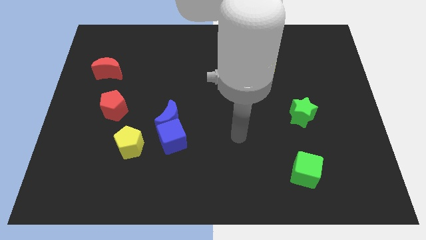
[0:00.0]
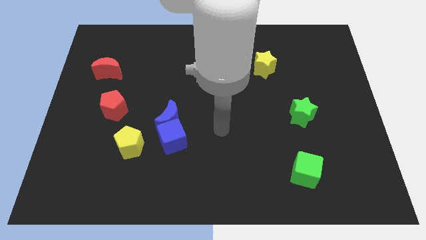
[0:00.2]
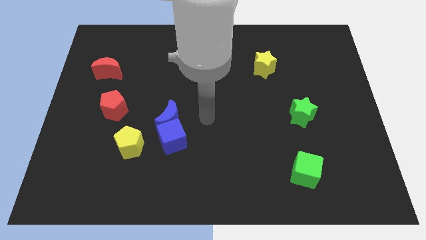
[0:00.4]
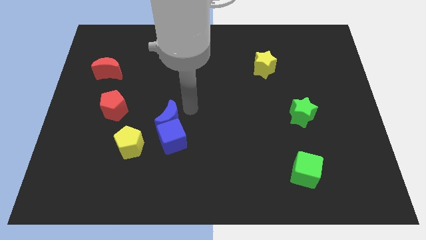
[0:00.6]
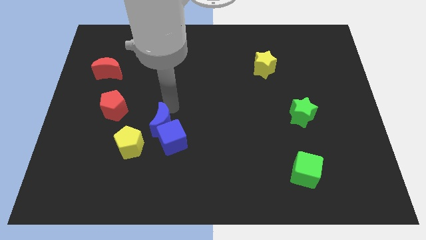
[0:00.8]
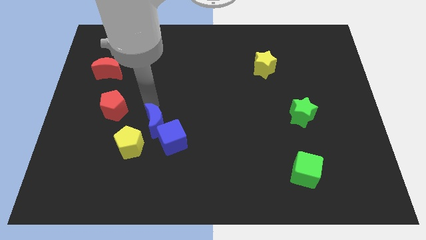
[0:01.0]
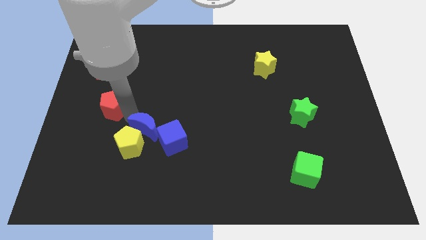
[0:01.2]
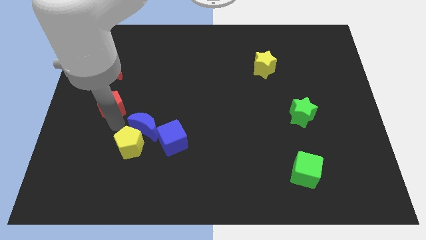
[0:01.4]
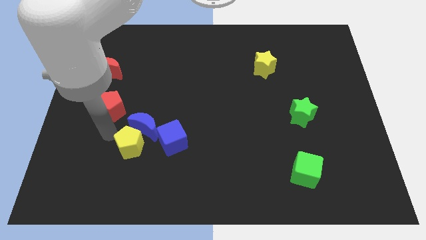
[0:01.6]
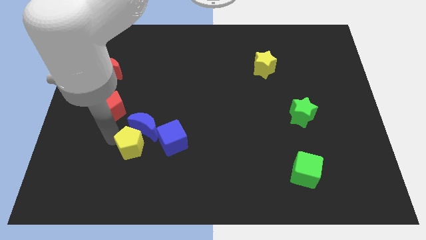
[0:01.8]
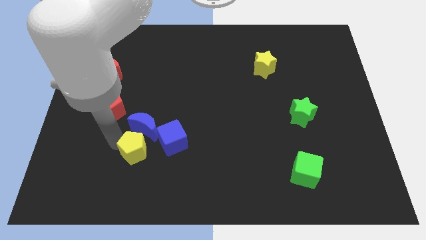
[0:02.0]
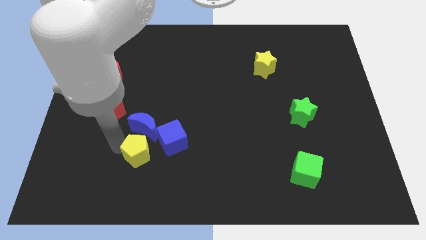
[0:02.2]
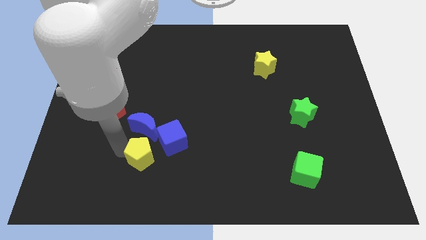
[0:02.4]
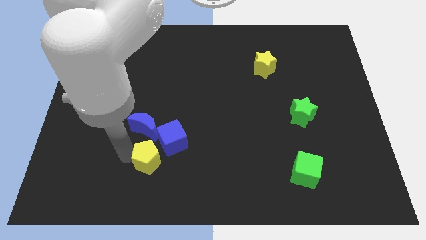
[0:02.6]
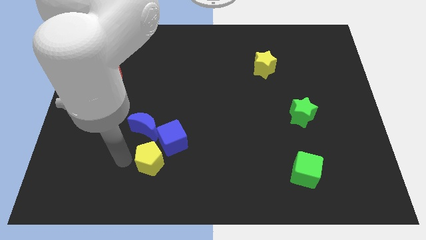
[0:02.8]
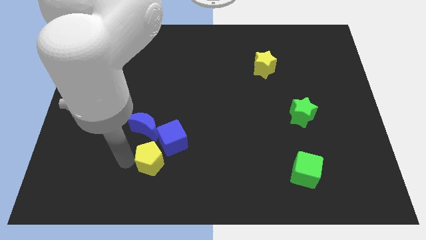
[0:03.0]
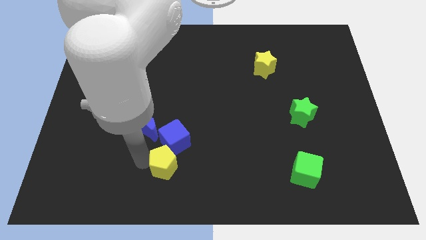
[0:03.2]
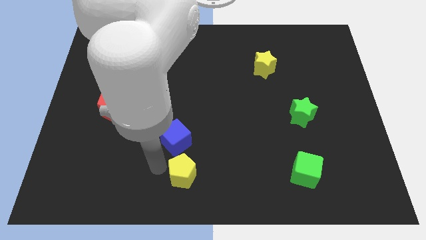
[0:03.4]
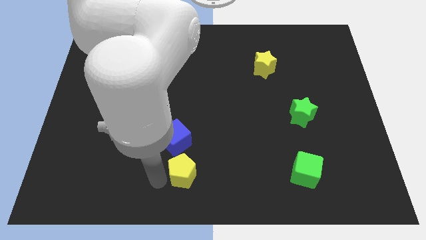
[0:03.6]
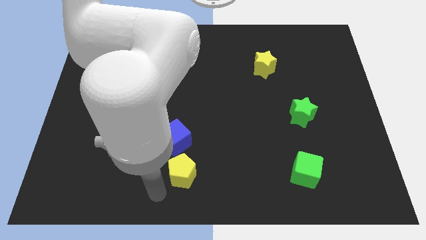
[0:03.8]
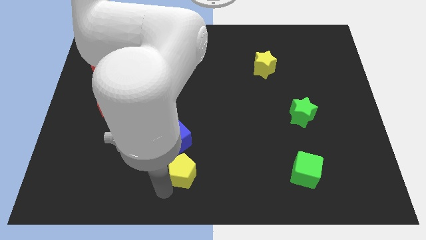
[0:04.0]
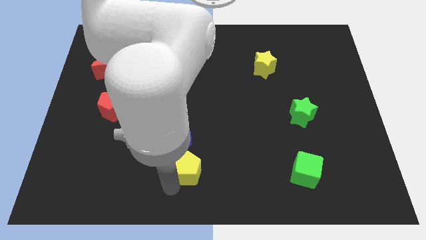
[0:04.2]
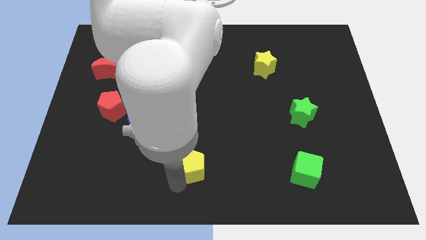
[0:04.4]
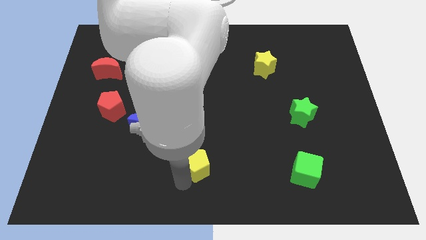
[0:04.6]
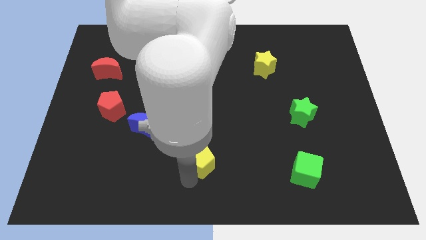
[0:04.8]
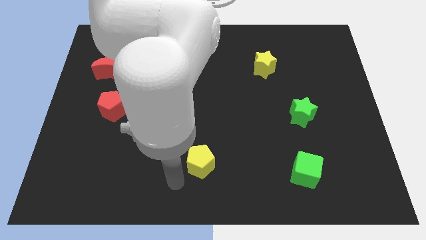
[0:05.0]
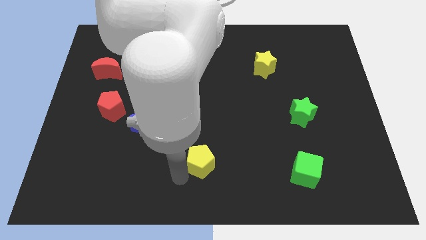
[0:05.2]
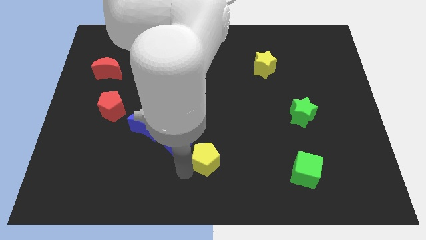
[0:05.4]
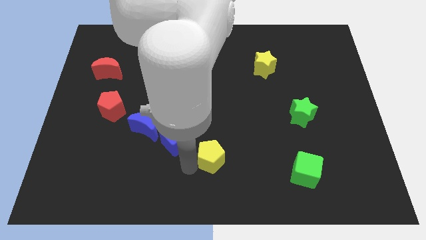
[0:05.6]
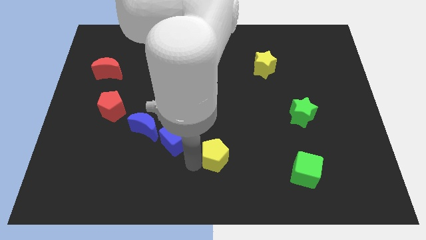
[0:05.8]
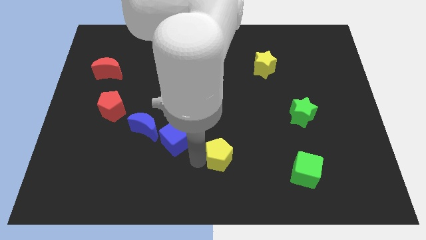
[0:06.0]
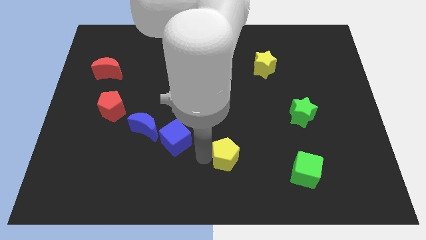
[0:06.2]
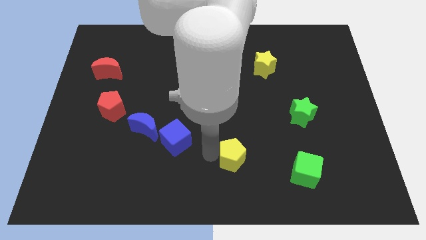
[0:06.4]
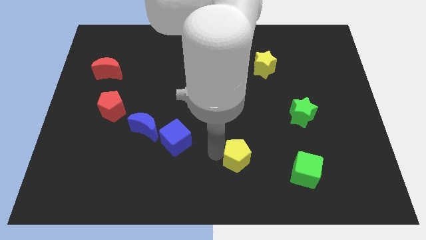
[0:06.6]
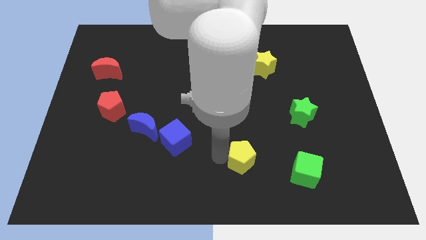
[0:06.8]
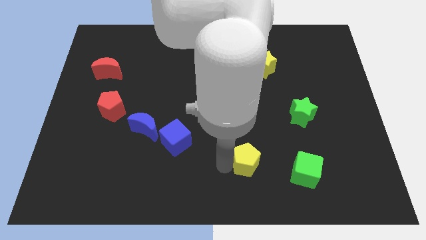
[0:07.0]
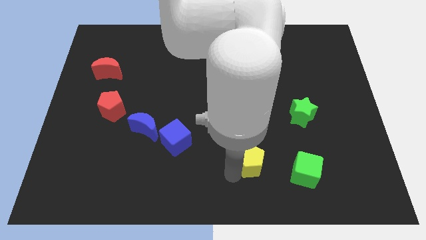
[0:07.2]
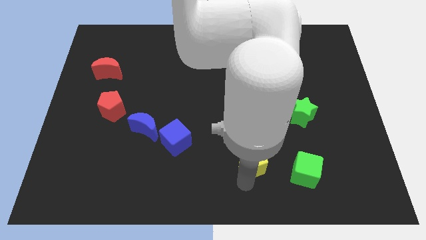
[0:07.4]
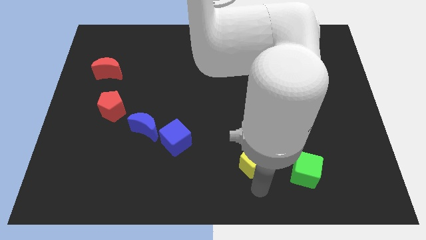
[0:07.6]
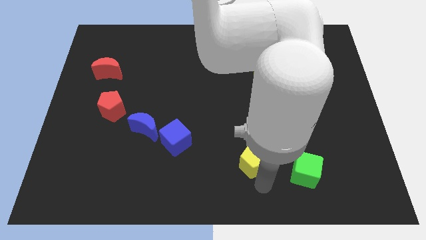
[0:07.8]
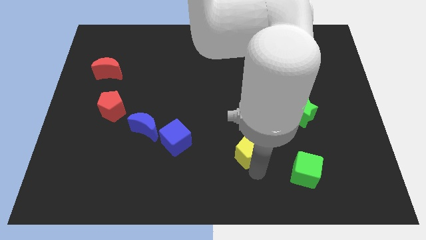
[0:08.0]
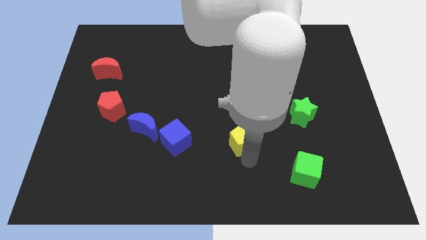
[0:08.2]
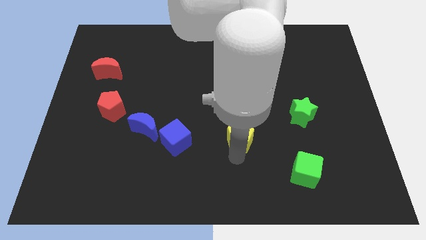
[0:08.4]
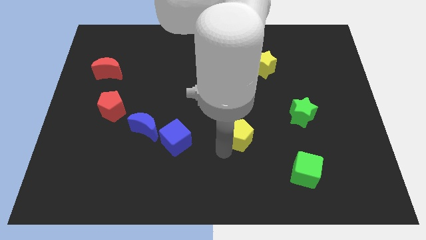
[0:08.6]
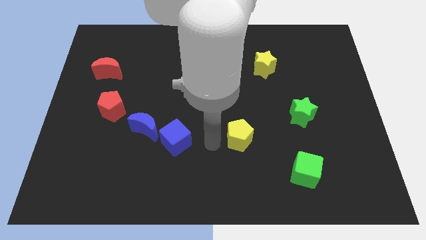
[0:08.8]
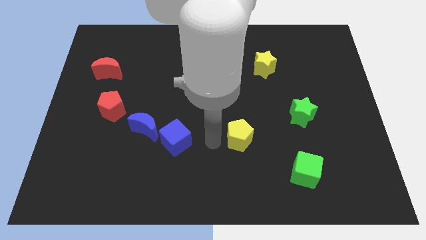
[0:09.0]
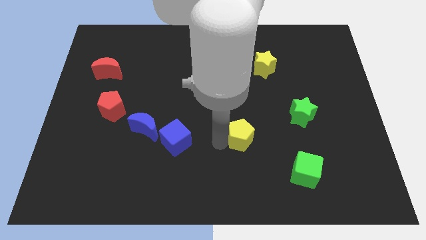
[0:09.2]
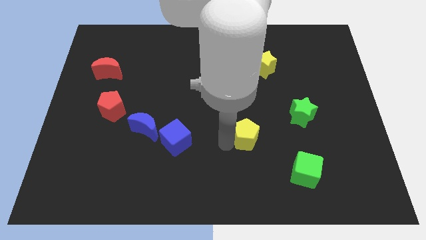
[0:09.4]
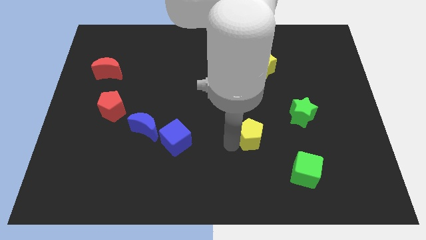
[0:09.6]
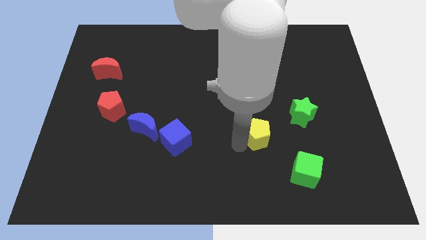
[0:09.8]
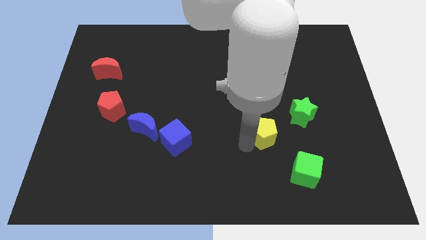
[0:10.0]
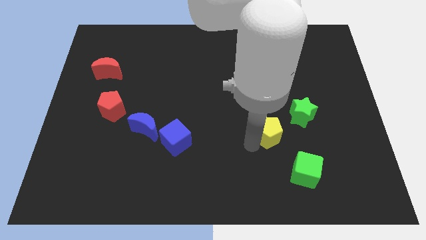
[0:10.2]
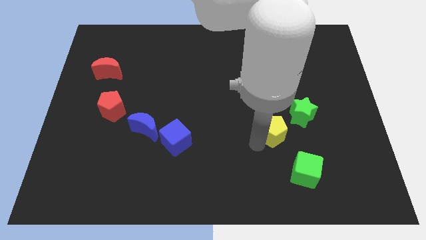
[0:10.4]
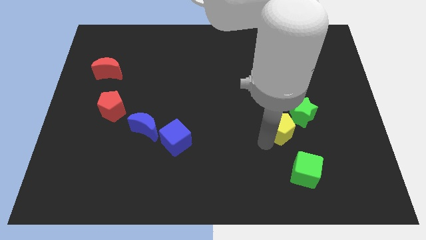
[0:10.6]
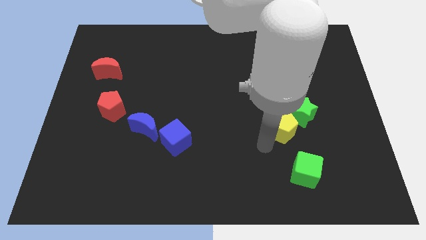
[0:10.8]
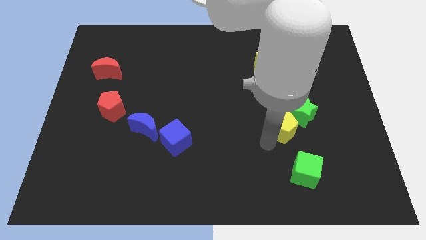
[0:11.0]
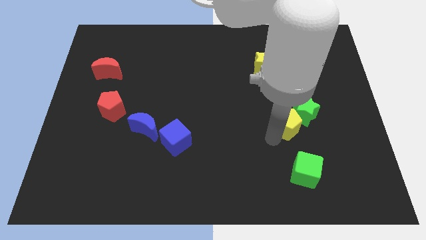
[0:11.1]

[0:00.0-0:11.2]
put the yellow pentagon towards the green star

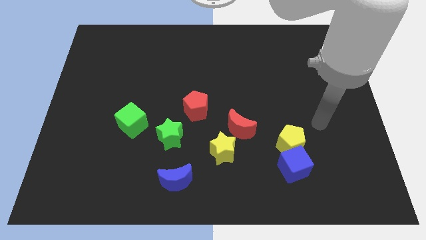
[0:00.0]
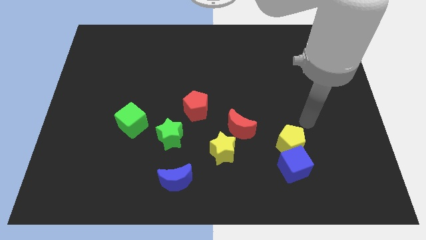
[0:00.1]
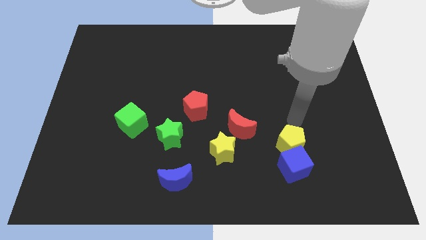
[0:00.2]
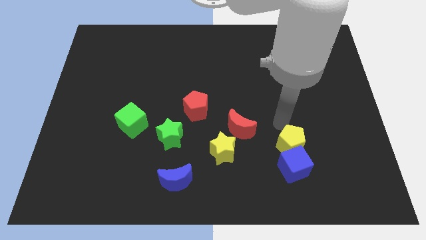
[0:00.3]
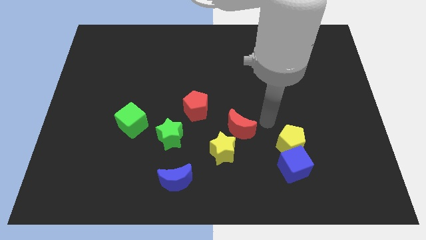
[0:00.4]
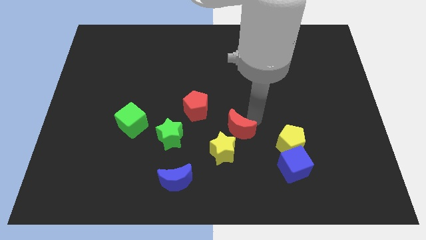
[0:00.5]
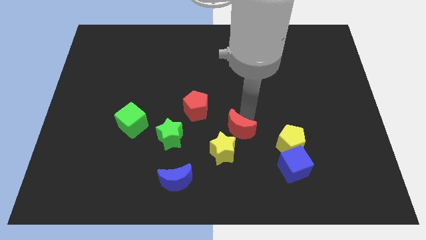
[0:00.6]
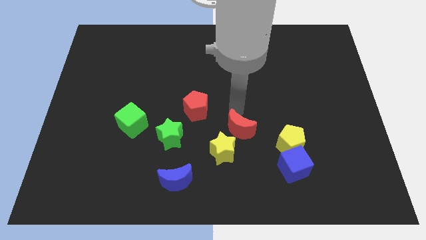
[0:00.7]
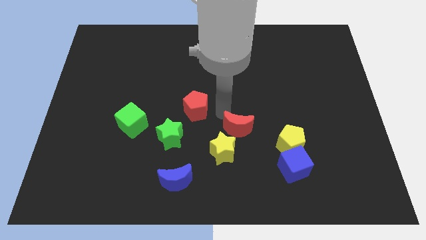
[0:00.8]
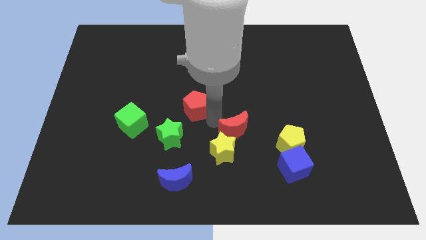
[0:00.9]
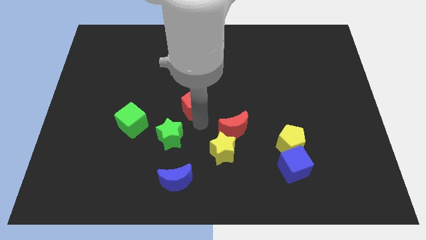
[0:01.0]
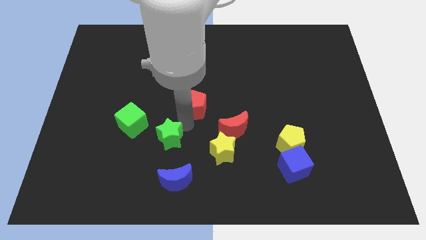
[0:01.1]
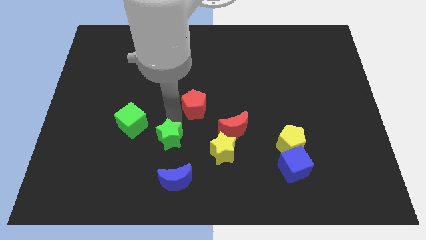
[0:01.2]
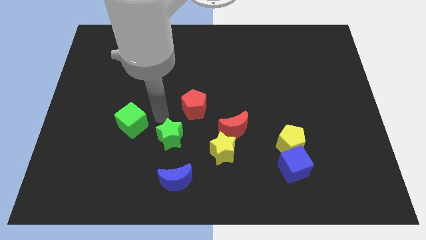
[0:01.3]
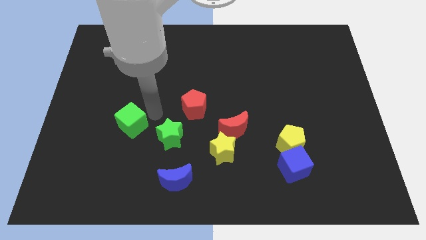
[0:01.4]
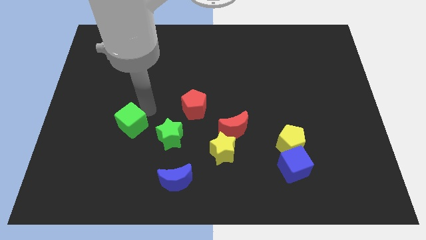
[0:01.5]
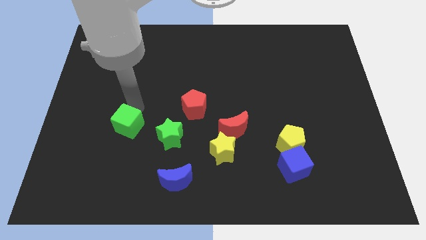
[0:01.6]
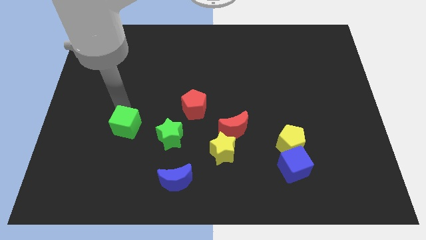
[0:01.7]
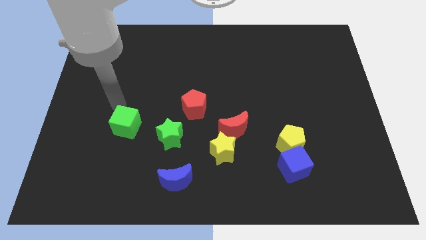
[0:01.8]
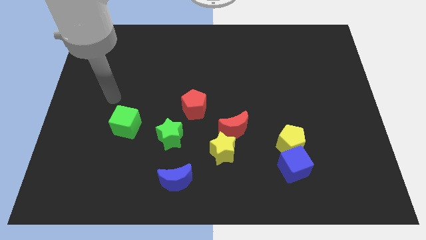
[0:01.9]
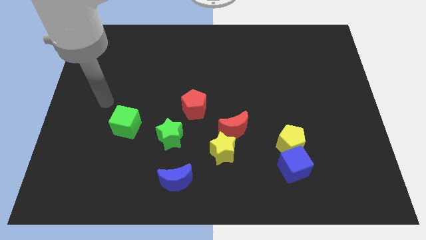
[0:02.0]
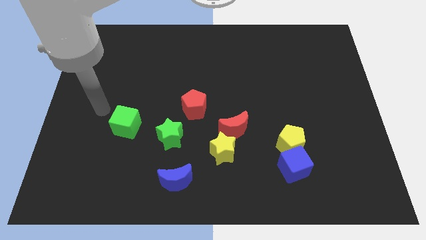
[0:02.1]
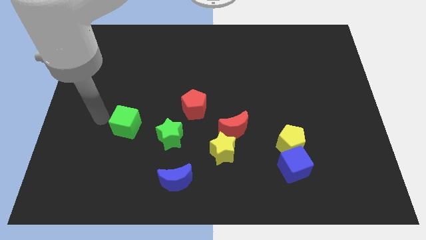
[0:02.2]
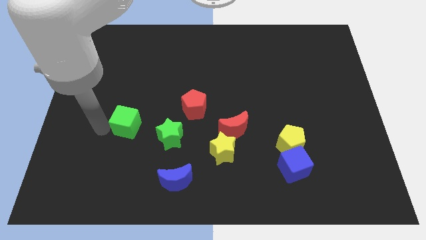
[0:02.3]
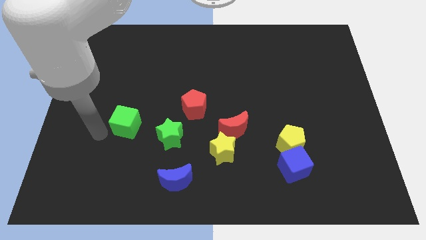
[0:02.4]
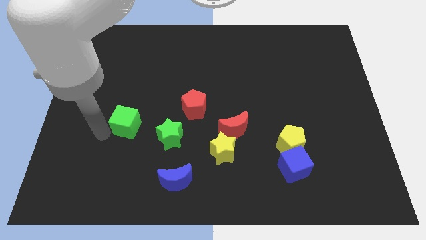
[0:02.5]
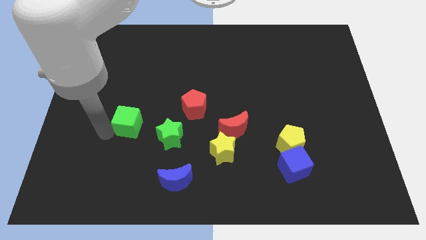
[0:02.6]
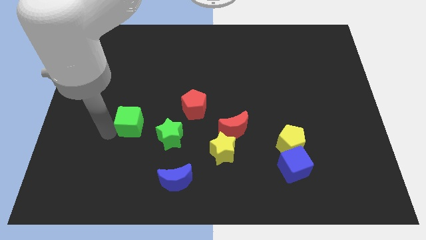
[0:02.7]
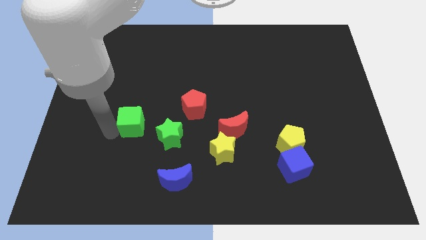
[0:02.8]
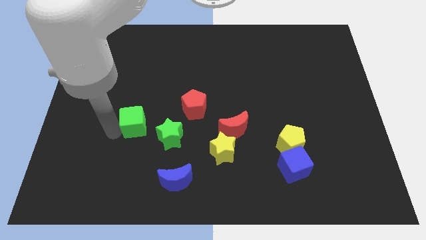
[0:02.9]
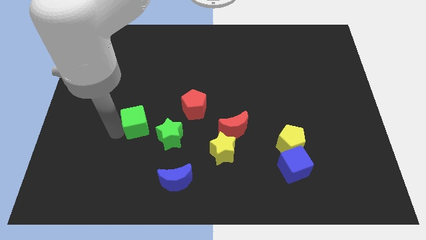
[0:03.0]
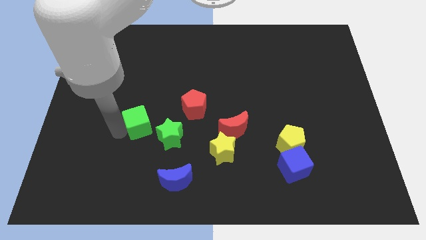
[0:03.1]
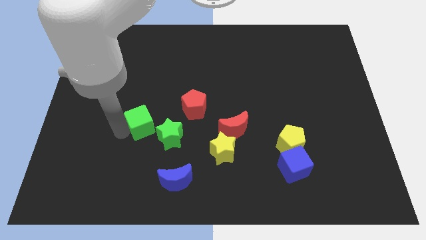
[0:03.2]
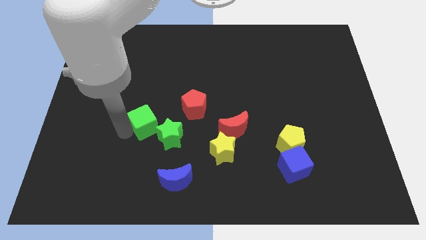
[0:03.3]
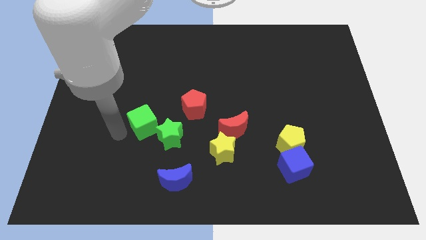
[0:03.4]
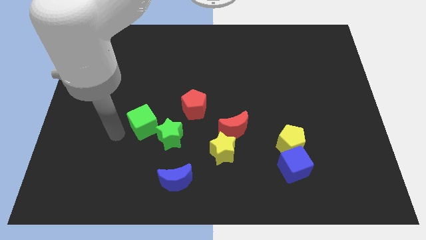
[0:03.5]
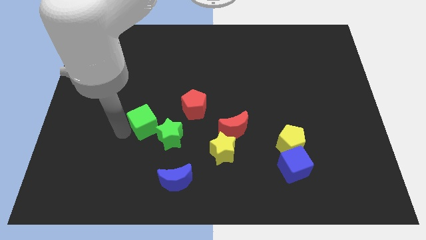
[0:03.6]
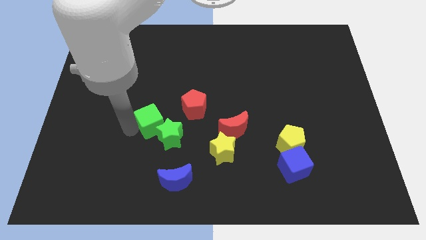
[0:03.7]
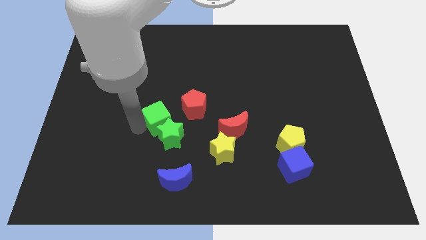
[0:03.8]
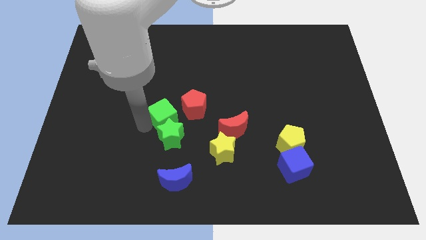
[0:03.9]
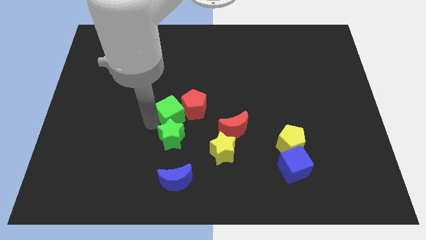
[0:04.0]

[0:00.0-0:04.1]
push the green cube to the red pentagon
